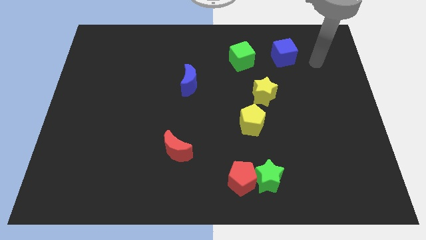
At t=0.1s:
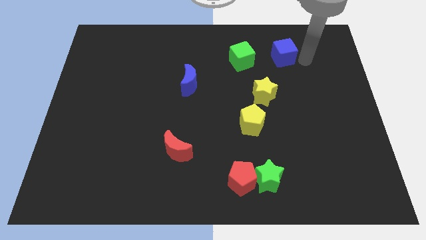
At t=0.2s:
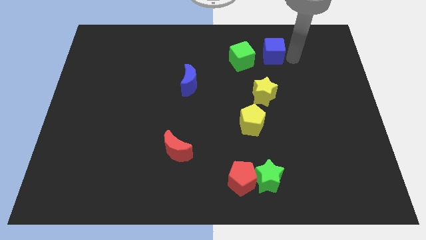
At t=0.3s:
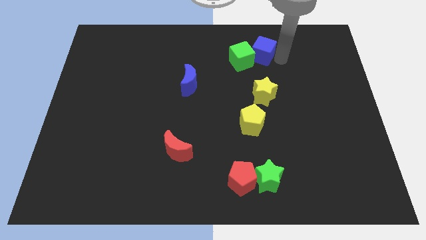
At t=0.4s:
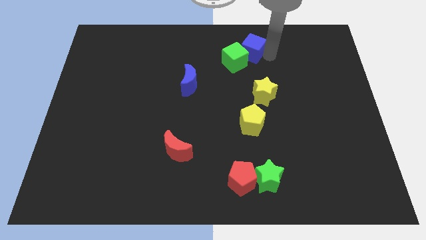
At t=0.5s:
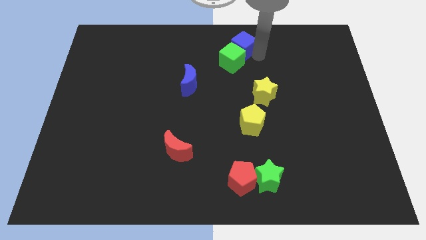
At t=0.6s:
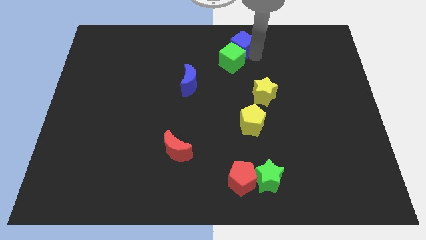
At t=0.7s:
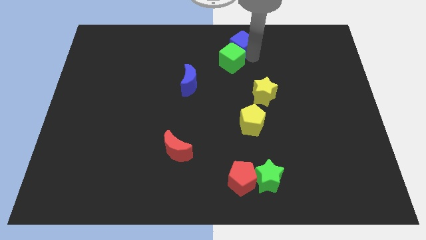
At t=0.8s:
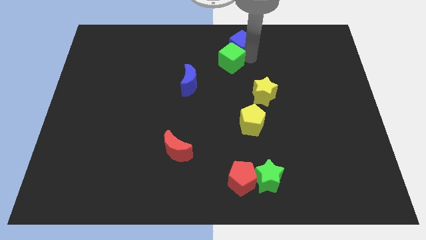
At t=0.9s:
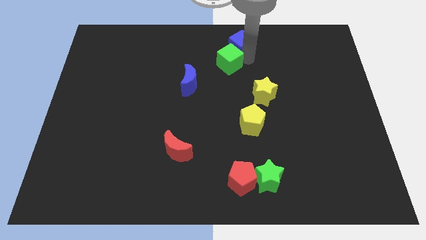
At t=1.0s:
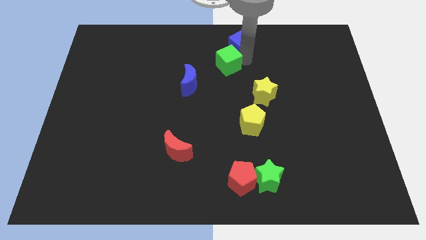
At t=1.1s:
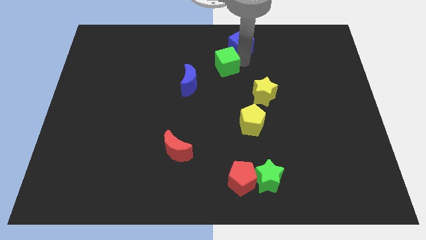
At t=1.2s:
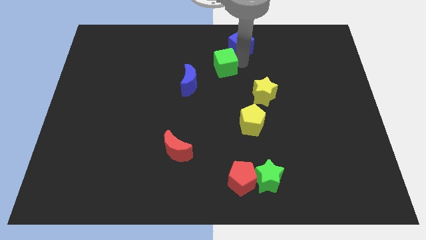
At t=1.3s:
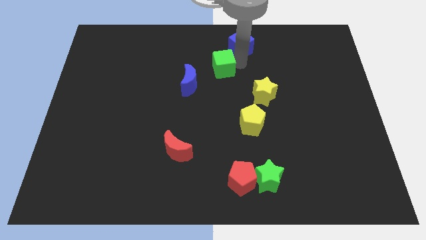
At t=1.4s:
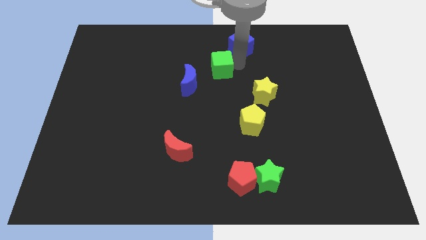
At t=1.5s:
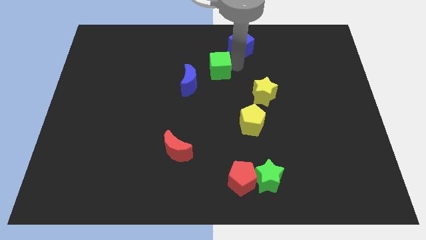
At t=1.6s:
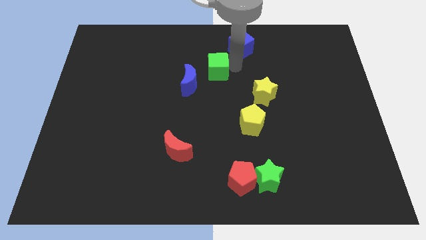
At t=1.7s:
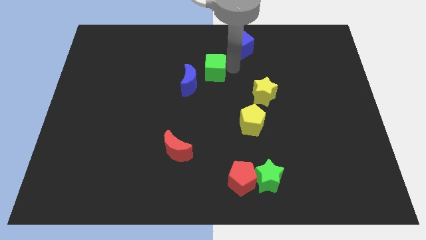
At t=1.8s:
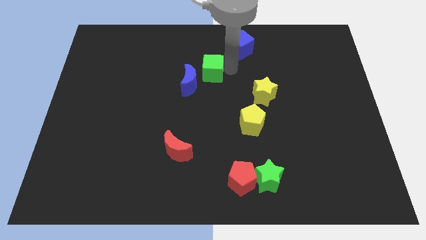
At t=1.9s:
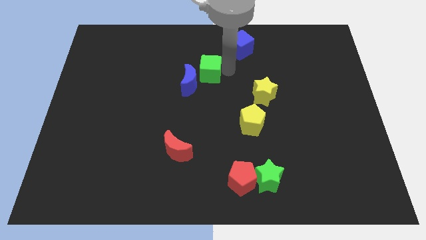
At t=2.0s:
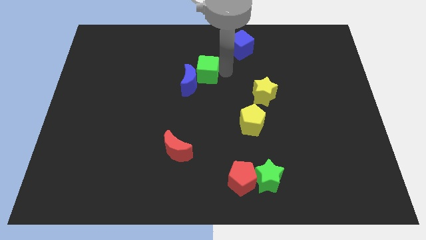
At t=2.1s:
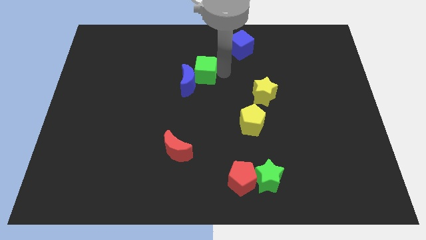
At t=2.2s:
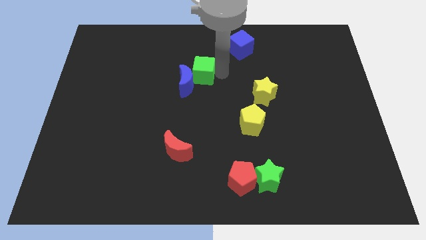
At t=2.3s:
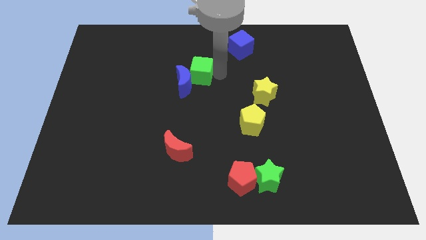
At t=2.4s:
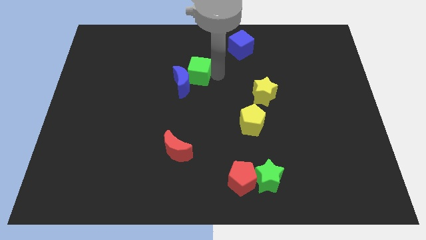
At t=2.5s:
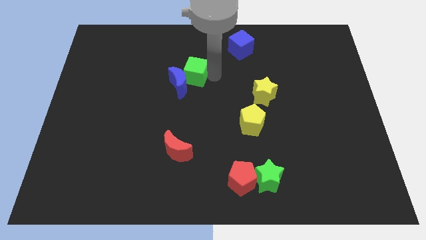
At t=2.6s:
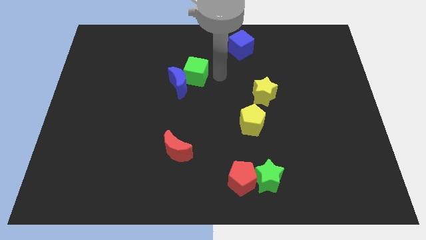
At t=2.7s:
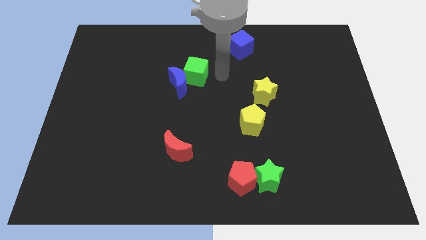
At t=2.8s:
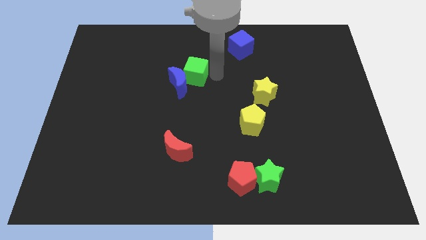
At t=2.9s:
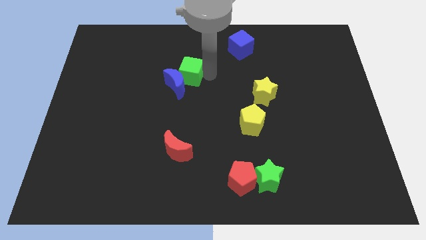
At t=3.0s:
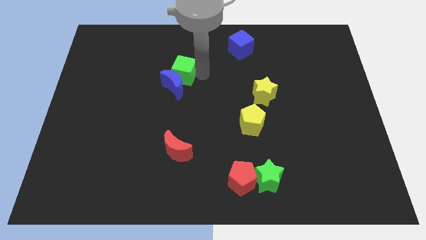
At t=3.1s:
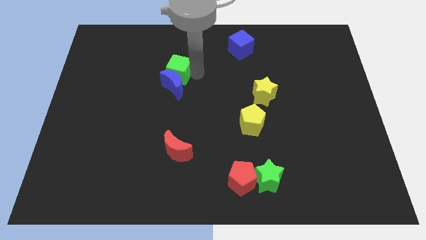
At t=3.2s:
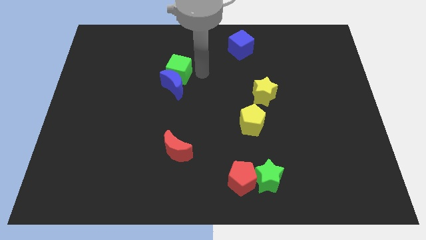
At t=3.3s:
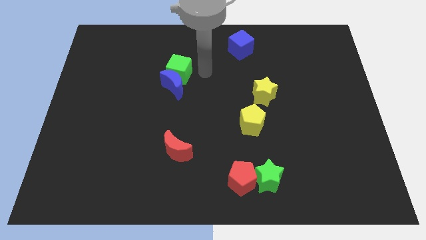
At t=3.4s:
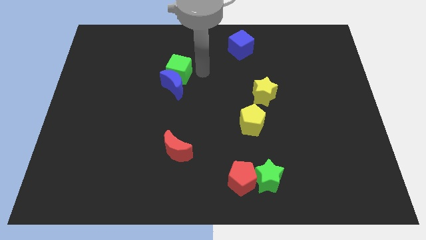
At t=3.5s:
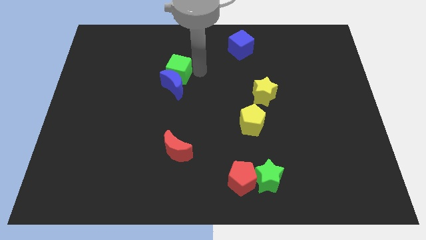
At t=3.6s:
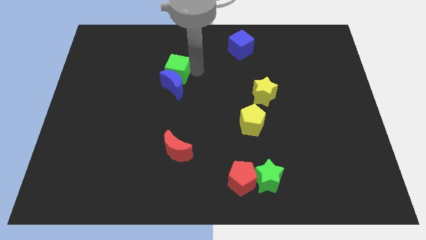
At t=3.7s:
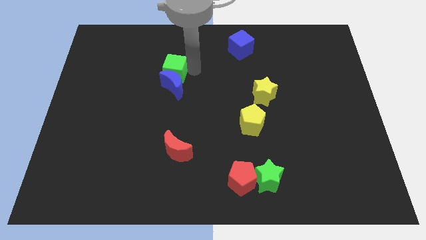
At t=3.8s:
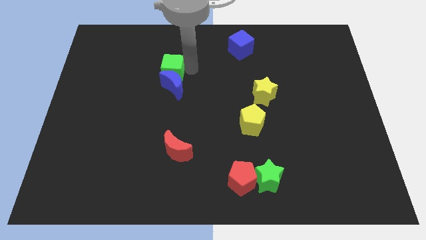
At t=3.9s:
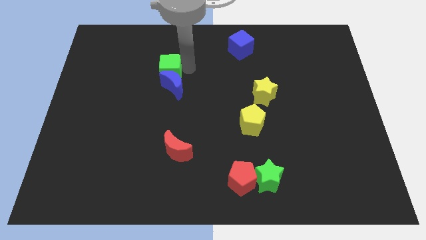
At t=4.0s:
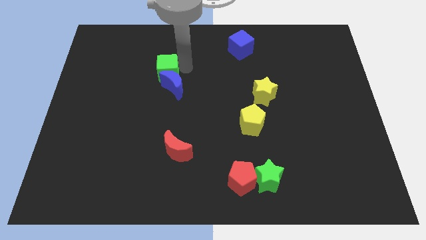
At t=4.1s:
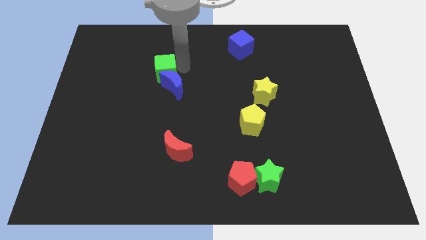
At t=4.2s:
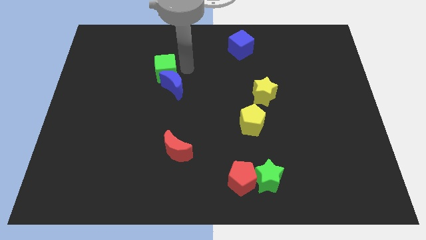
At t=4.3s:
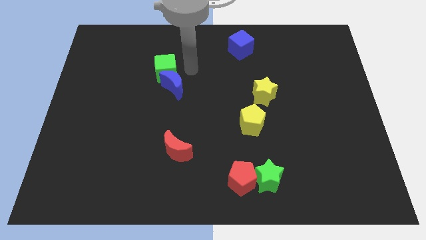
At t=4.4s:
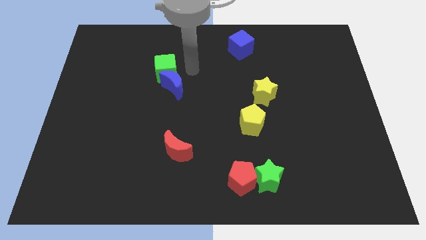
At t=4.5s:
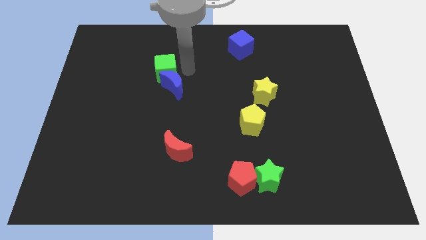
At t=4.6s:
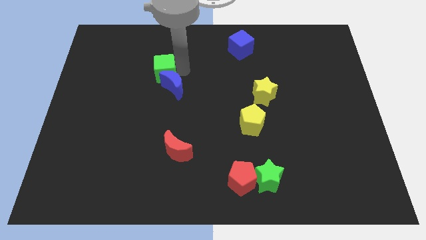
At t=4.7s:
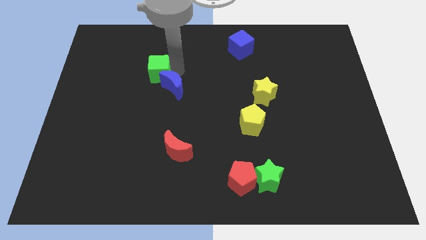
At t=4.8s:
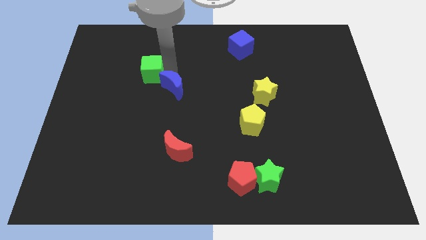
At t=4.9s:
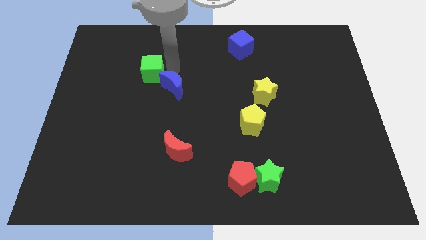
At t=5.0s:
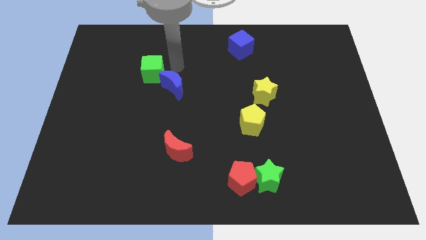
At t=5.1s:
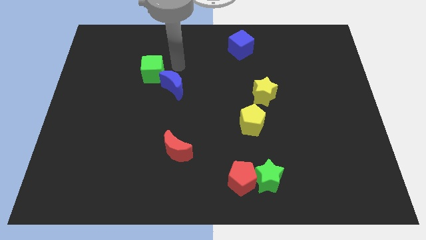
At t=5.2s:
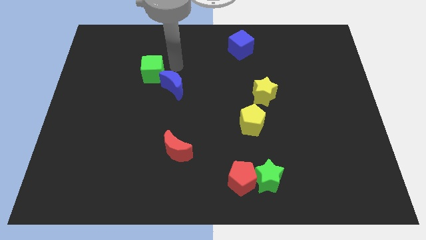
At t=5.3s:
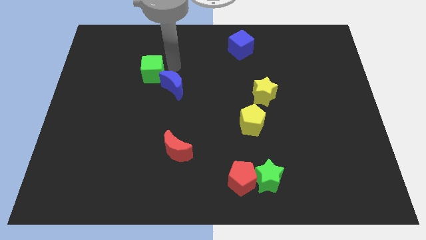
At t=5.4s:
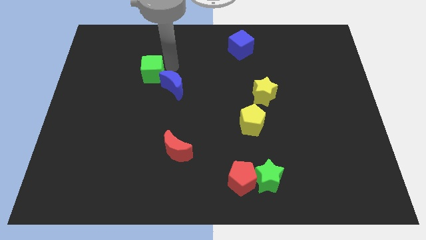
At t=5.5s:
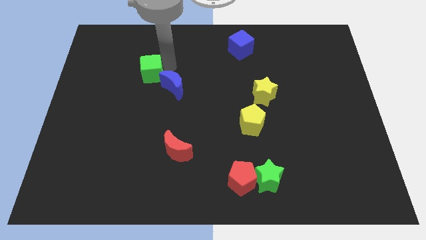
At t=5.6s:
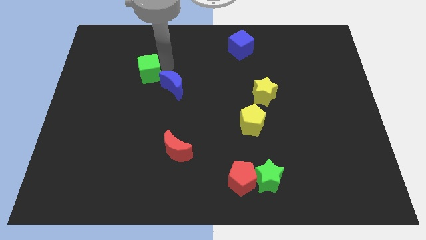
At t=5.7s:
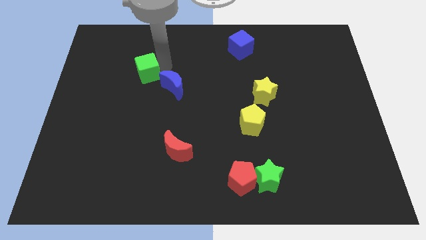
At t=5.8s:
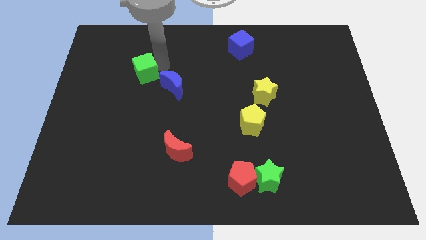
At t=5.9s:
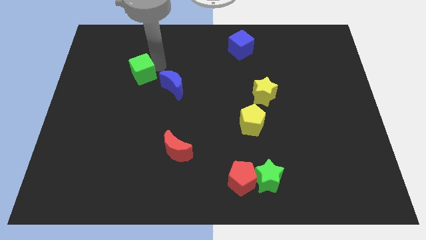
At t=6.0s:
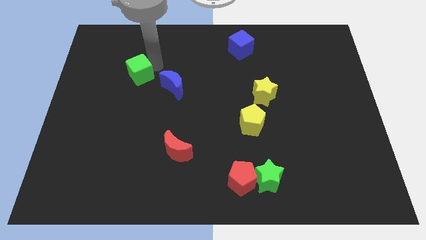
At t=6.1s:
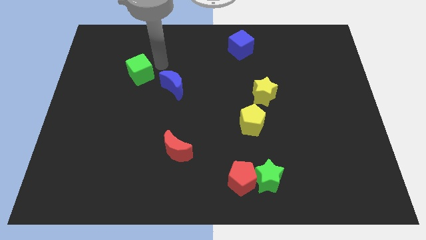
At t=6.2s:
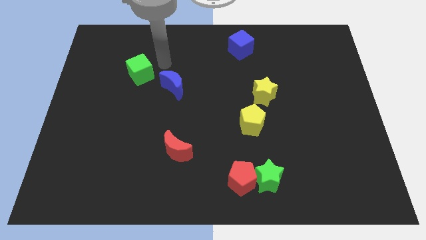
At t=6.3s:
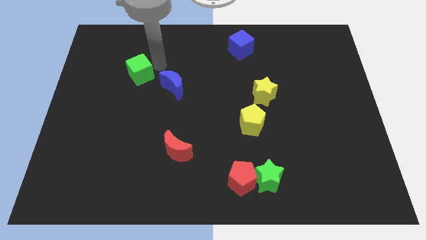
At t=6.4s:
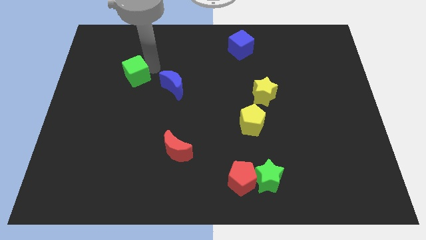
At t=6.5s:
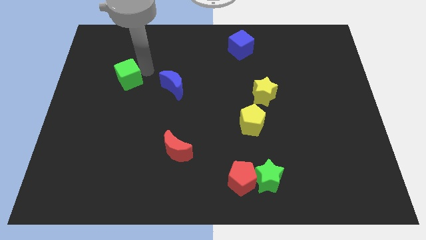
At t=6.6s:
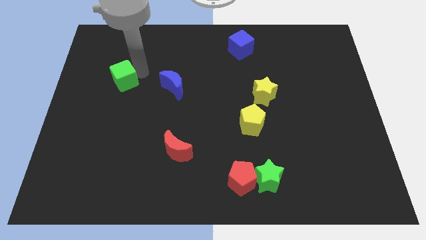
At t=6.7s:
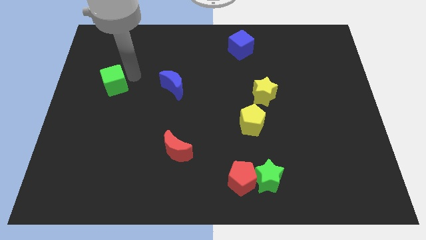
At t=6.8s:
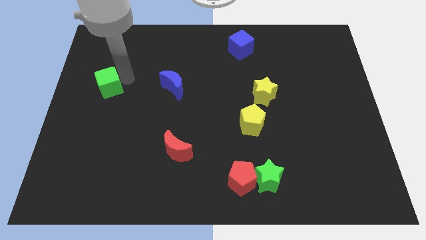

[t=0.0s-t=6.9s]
slide the green cube to the left side

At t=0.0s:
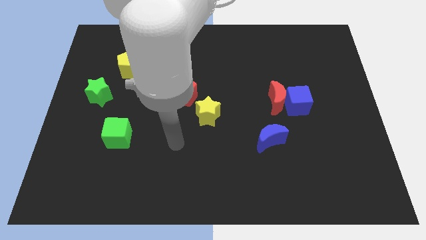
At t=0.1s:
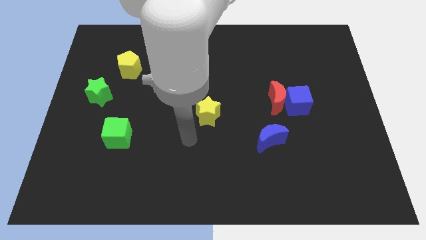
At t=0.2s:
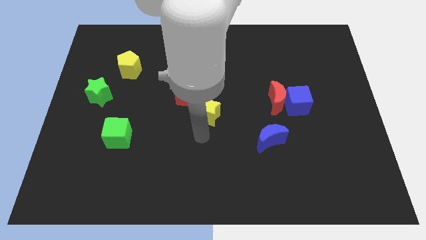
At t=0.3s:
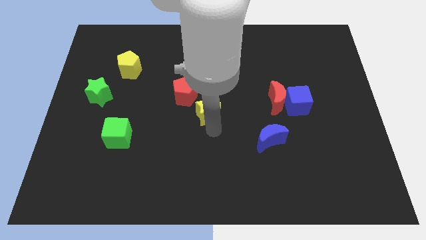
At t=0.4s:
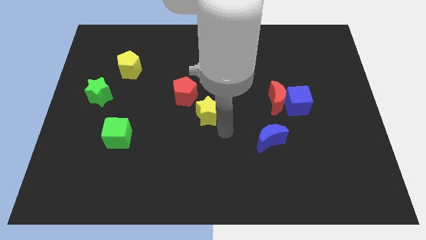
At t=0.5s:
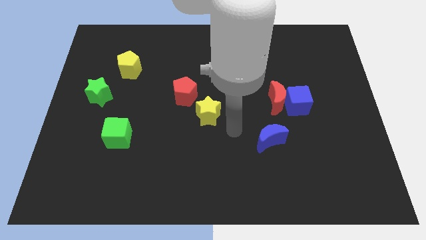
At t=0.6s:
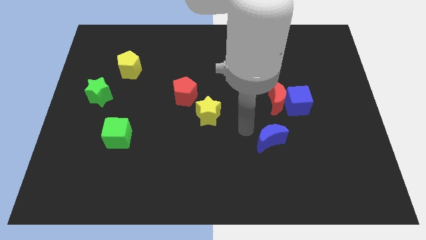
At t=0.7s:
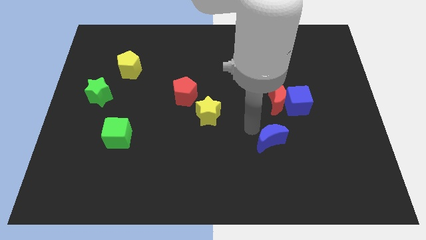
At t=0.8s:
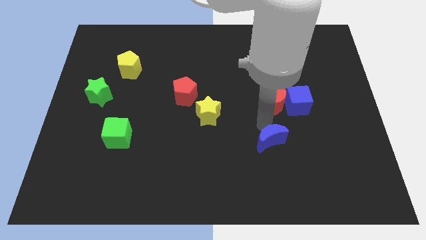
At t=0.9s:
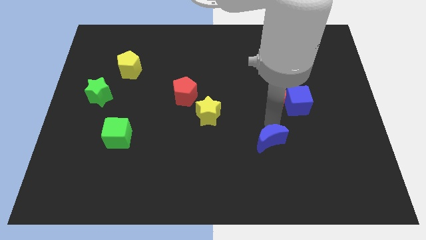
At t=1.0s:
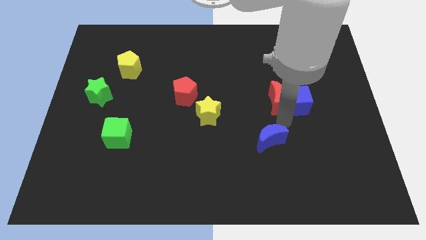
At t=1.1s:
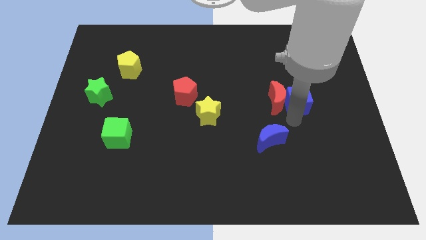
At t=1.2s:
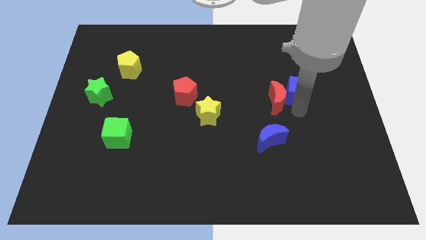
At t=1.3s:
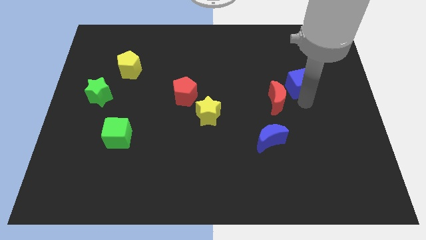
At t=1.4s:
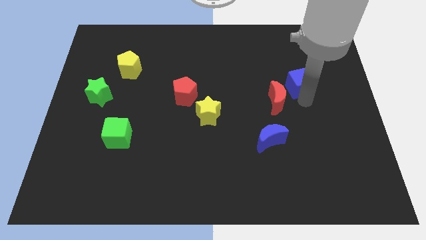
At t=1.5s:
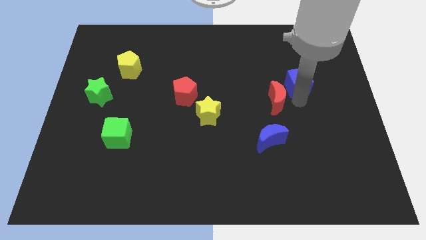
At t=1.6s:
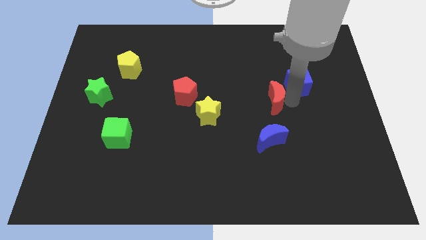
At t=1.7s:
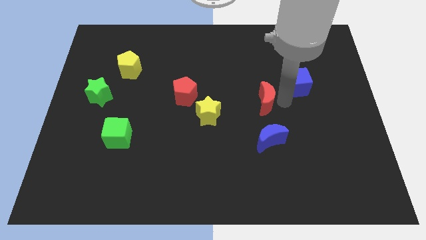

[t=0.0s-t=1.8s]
move the red moon to the center
